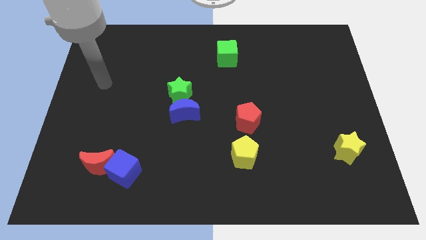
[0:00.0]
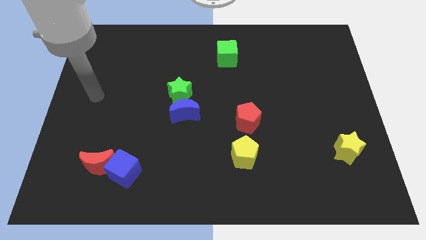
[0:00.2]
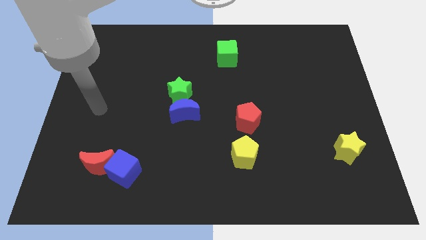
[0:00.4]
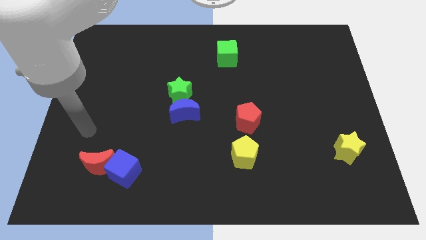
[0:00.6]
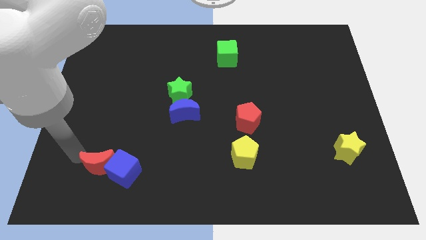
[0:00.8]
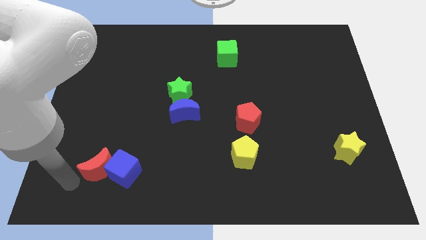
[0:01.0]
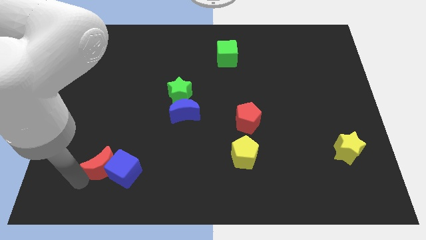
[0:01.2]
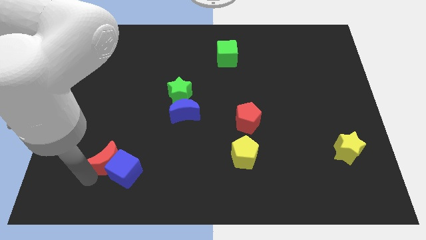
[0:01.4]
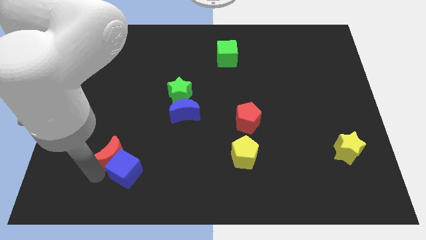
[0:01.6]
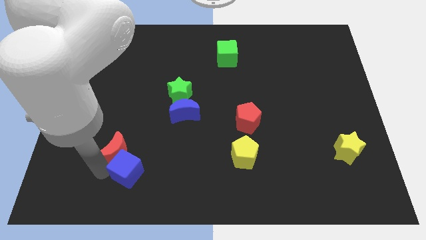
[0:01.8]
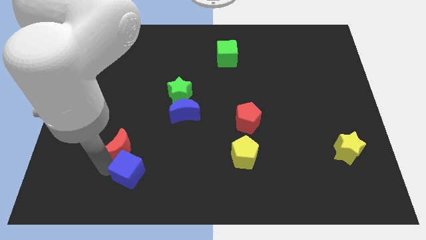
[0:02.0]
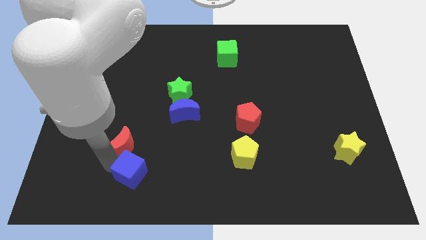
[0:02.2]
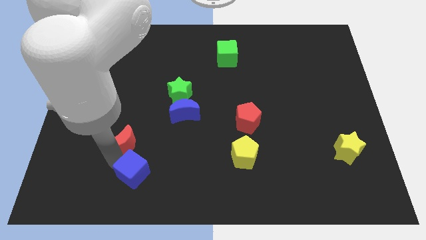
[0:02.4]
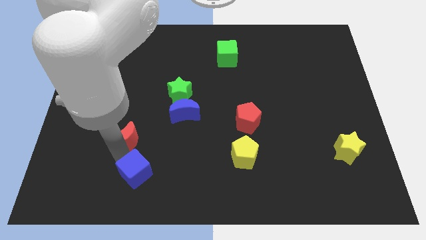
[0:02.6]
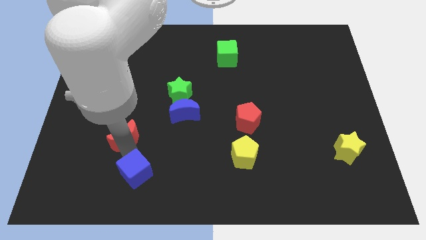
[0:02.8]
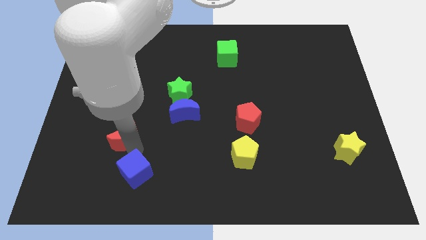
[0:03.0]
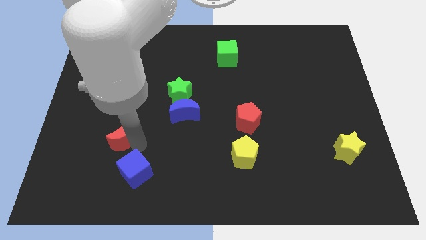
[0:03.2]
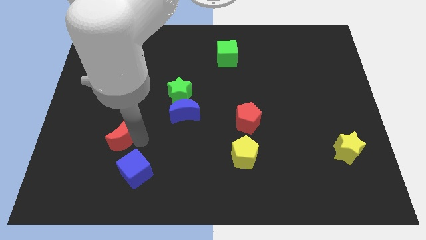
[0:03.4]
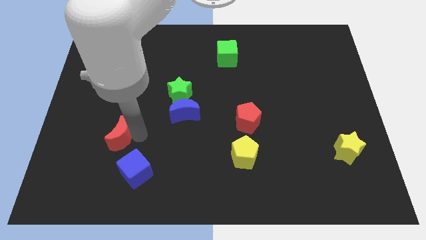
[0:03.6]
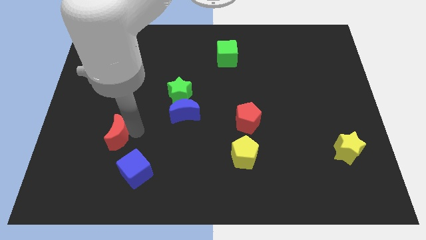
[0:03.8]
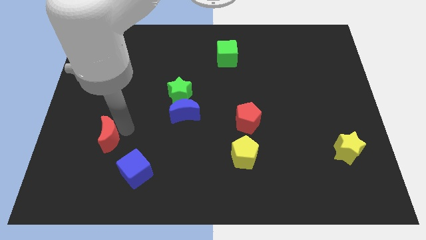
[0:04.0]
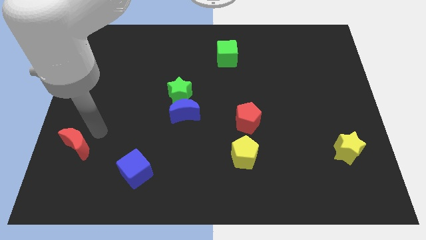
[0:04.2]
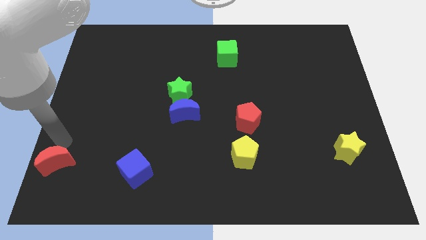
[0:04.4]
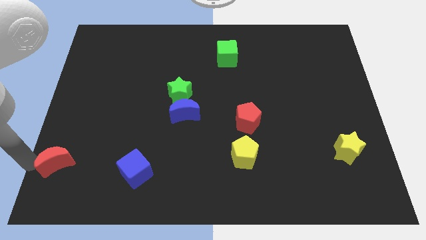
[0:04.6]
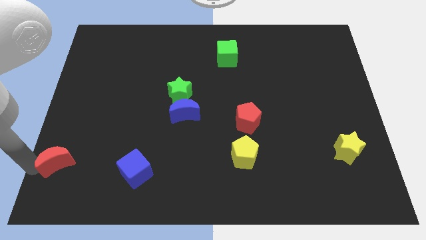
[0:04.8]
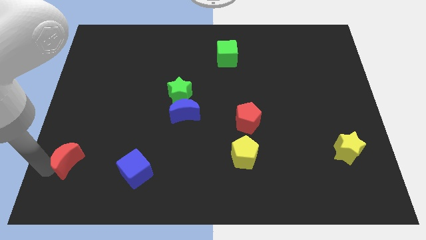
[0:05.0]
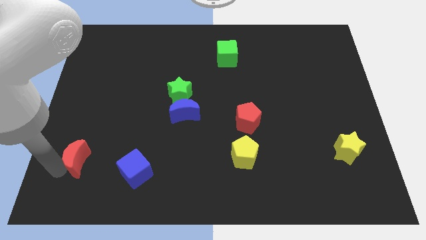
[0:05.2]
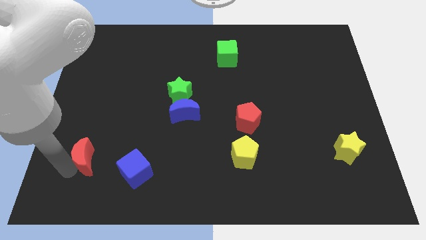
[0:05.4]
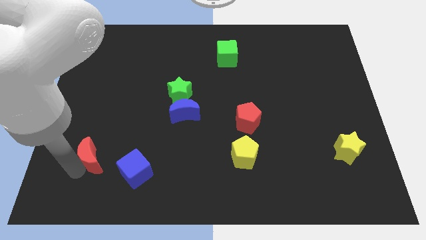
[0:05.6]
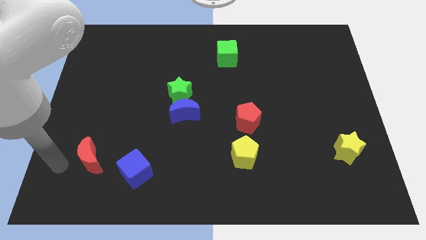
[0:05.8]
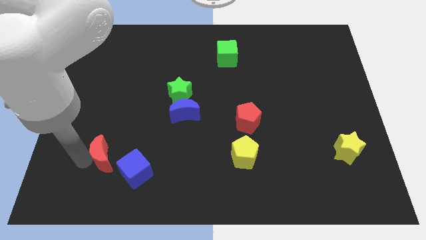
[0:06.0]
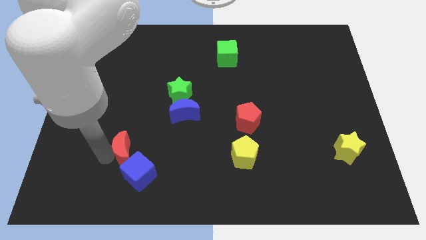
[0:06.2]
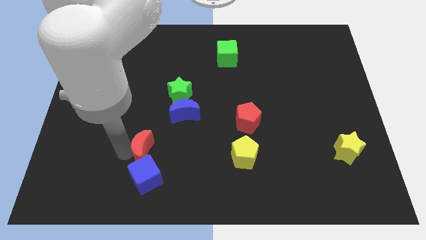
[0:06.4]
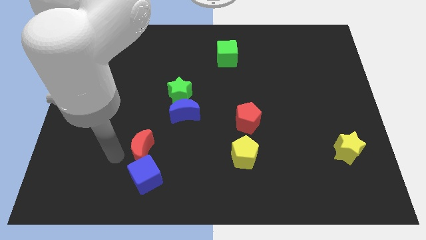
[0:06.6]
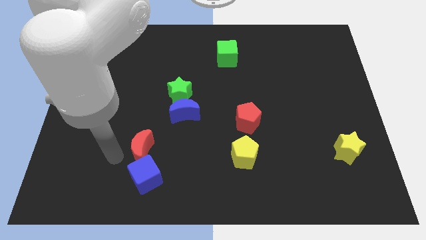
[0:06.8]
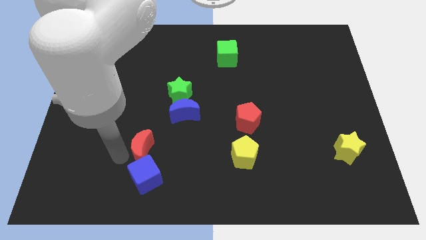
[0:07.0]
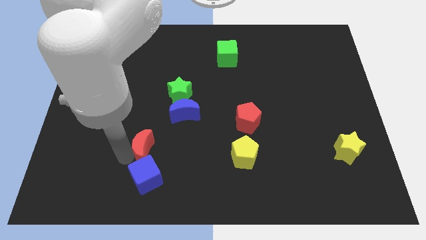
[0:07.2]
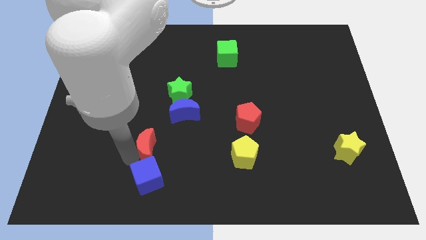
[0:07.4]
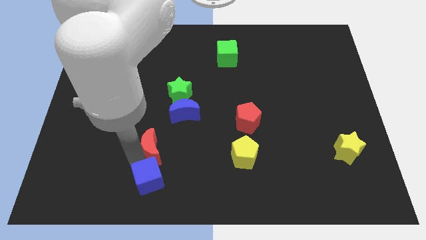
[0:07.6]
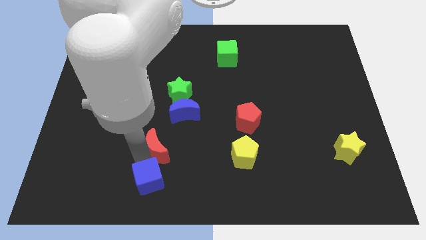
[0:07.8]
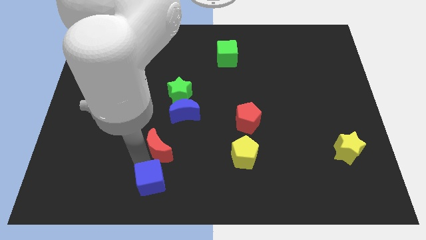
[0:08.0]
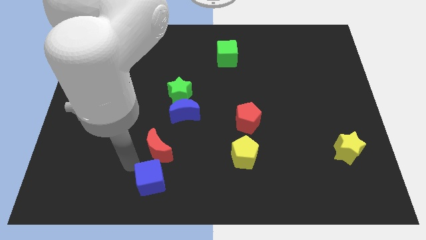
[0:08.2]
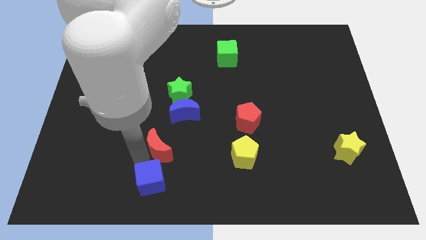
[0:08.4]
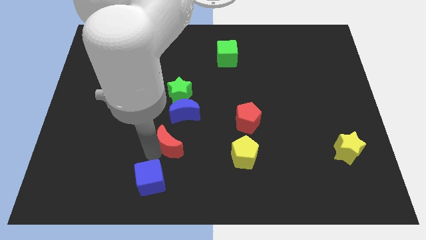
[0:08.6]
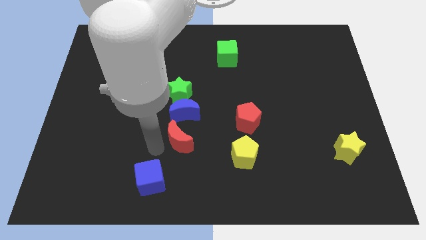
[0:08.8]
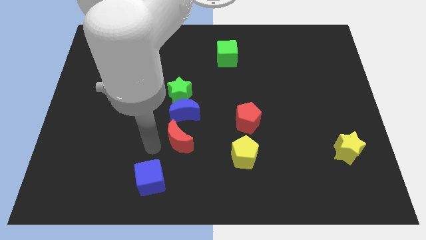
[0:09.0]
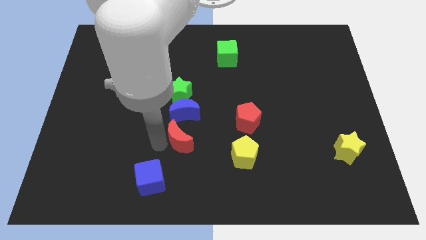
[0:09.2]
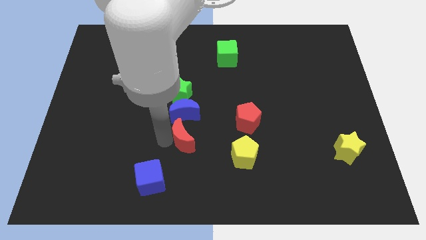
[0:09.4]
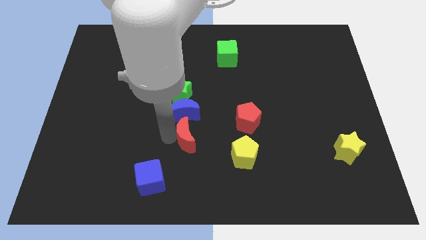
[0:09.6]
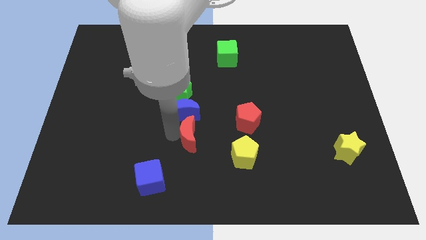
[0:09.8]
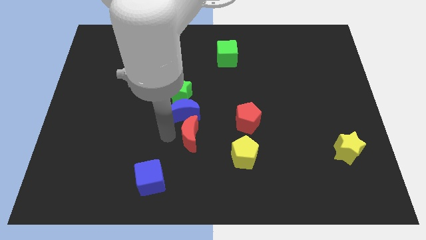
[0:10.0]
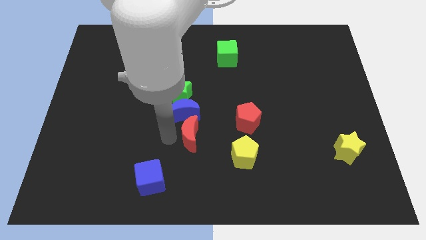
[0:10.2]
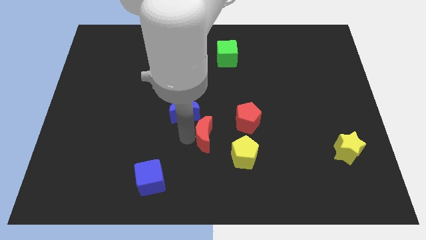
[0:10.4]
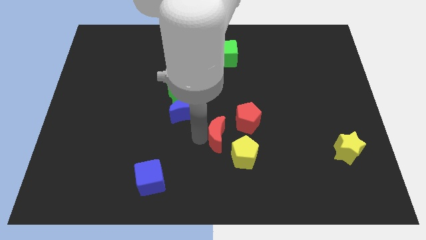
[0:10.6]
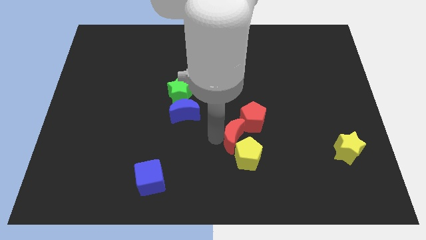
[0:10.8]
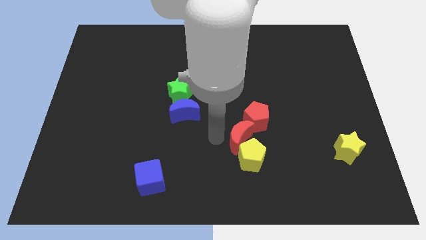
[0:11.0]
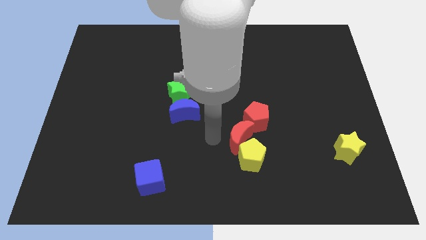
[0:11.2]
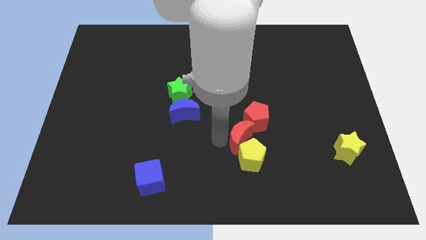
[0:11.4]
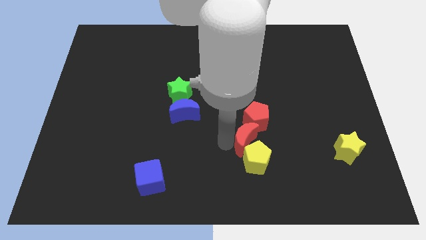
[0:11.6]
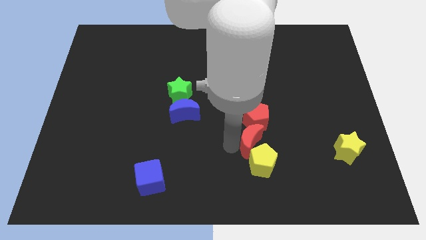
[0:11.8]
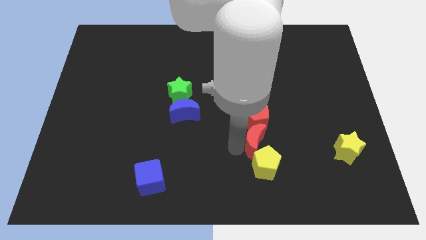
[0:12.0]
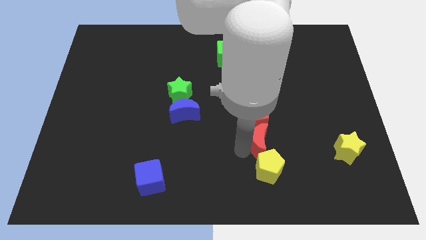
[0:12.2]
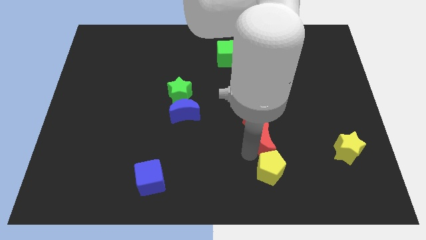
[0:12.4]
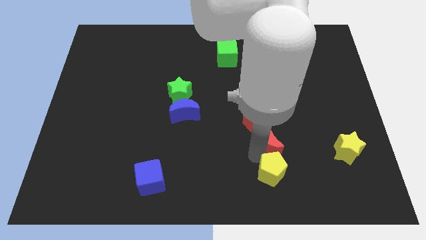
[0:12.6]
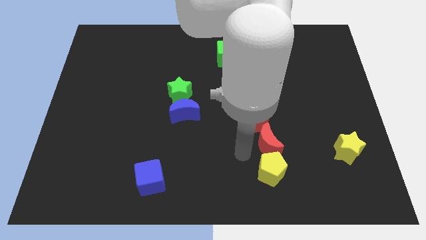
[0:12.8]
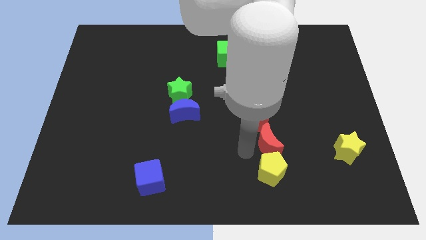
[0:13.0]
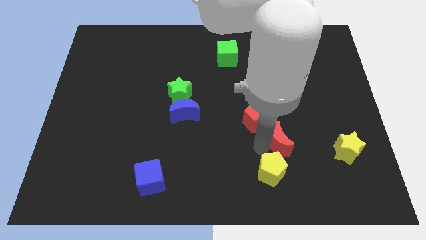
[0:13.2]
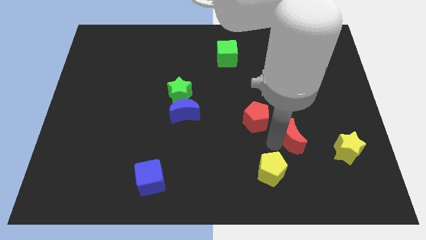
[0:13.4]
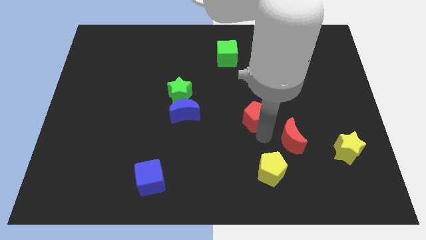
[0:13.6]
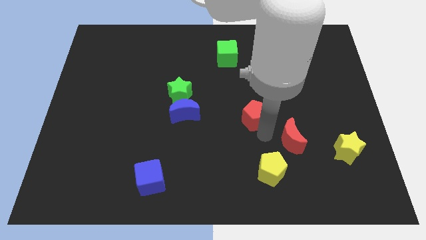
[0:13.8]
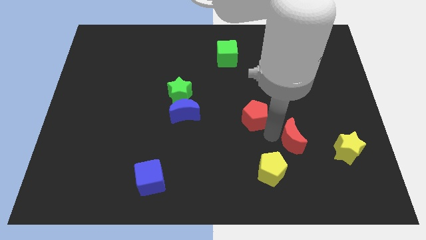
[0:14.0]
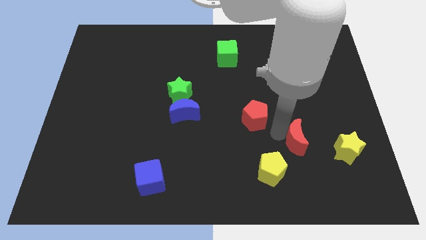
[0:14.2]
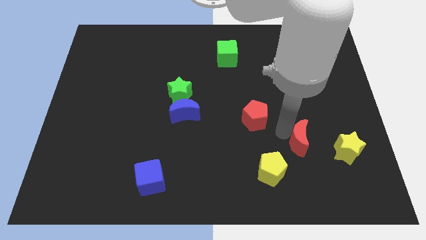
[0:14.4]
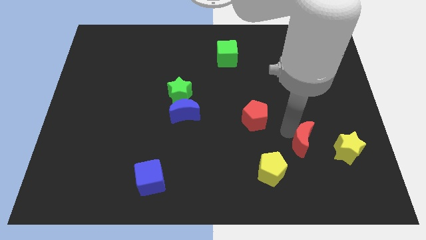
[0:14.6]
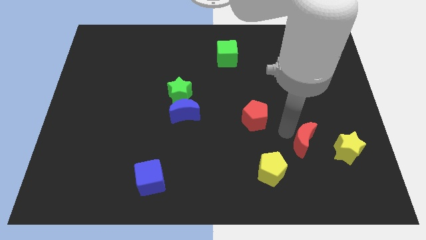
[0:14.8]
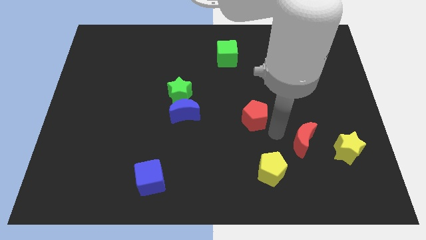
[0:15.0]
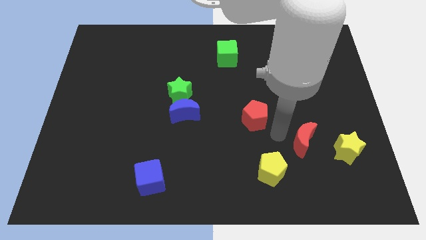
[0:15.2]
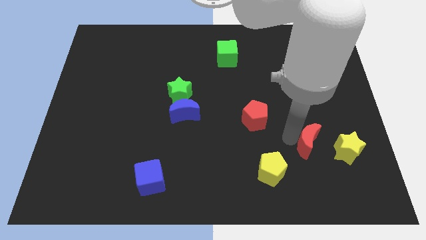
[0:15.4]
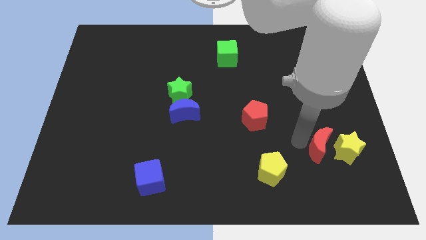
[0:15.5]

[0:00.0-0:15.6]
push the red moon next to the yellow star
